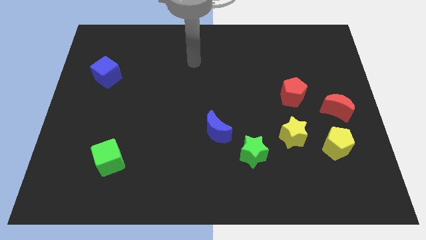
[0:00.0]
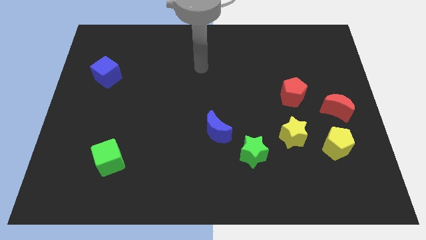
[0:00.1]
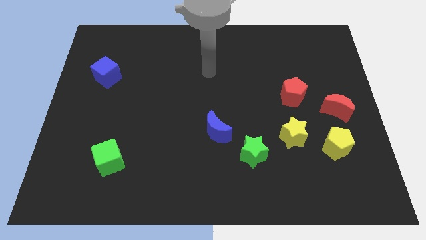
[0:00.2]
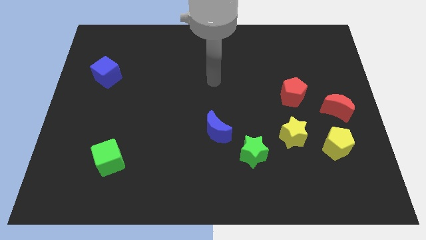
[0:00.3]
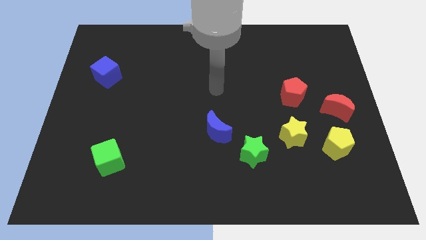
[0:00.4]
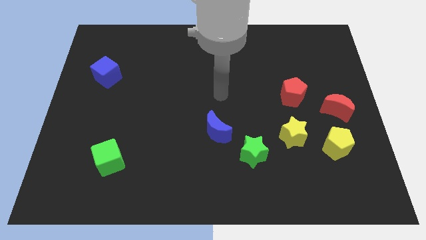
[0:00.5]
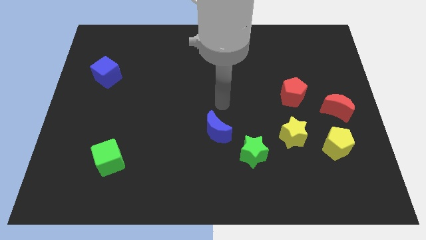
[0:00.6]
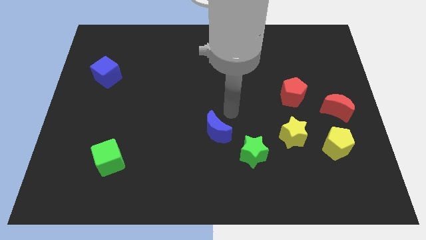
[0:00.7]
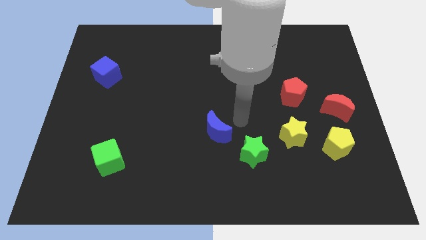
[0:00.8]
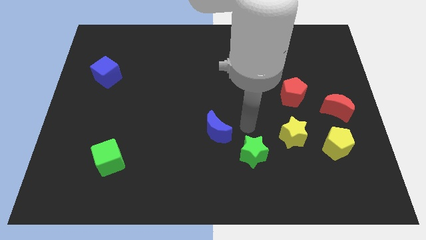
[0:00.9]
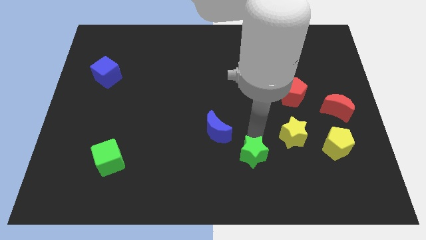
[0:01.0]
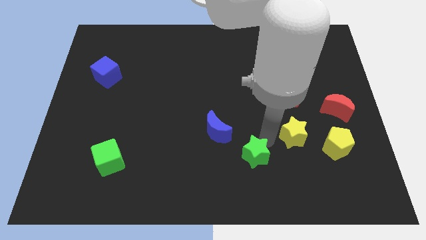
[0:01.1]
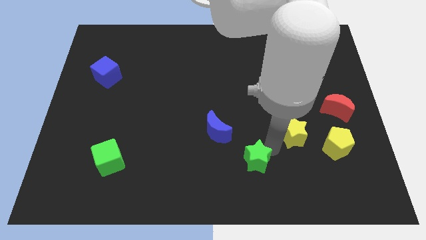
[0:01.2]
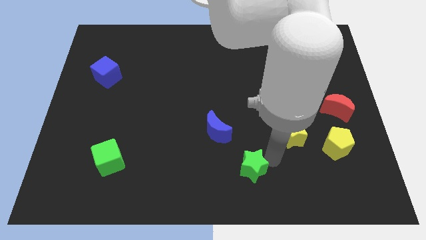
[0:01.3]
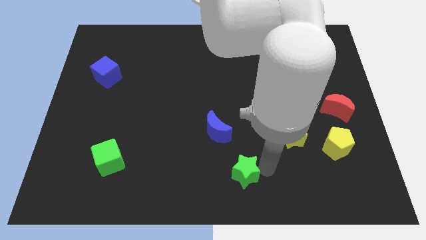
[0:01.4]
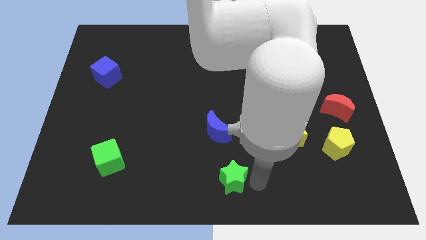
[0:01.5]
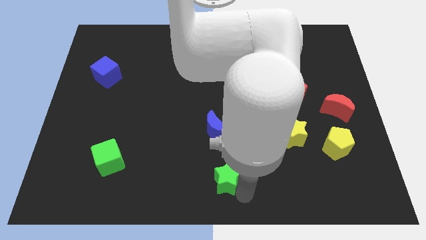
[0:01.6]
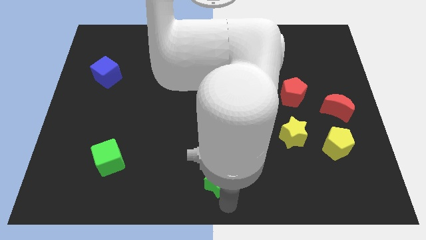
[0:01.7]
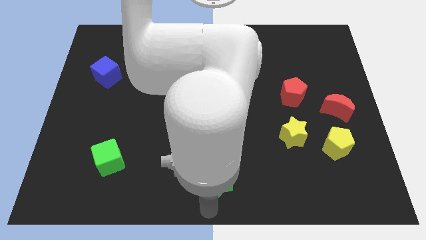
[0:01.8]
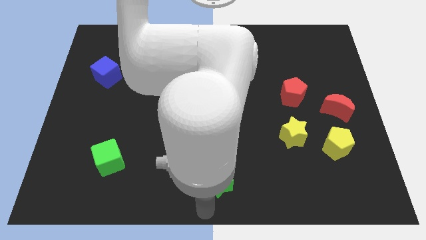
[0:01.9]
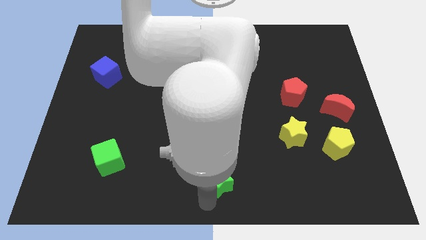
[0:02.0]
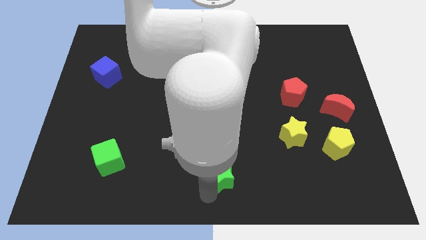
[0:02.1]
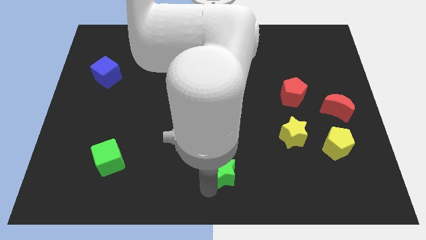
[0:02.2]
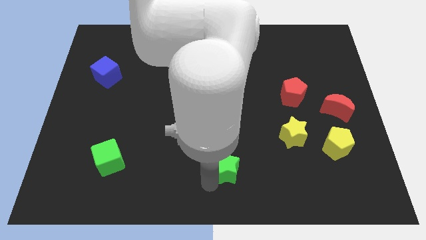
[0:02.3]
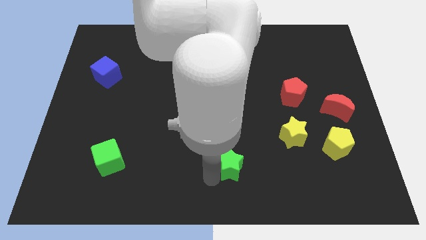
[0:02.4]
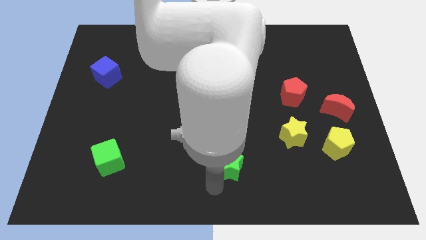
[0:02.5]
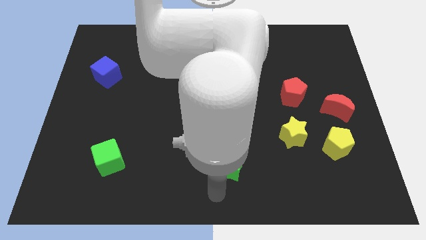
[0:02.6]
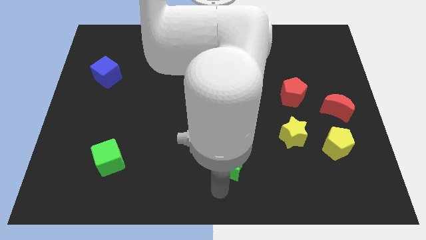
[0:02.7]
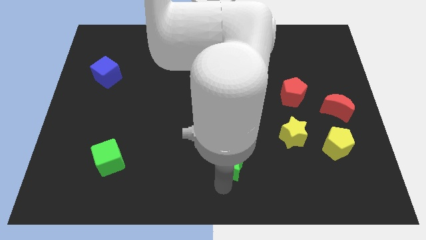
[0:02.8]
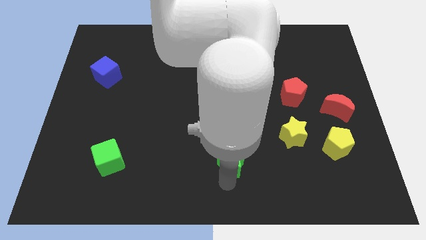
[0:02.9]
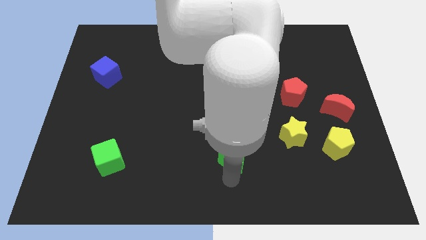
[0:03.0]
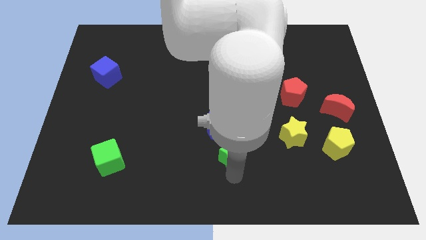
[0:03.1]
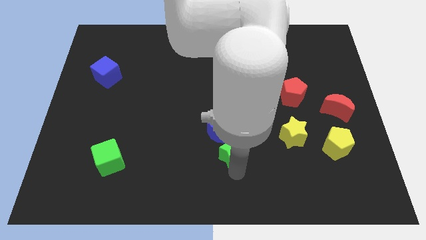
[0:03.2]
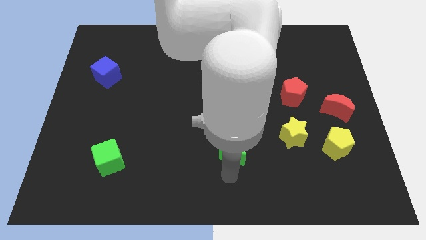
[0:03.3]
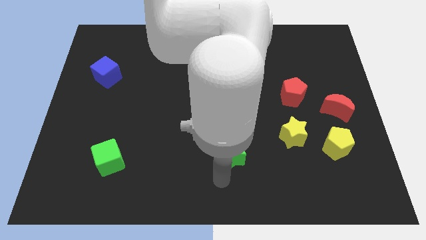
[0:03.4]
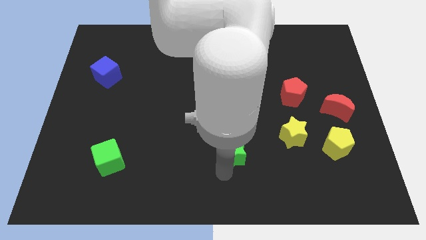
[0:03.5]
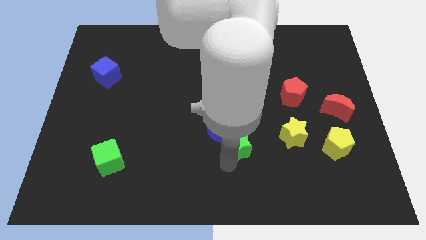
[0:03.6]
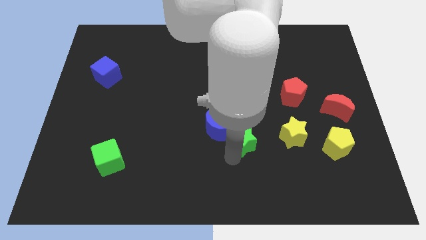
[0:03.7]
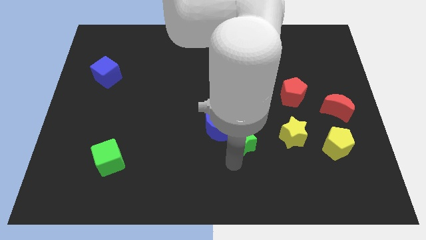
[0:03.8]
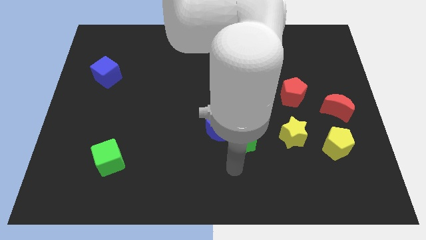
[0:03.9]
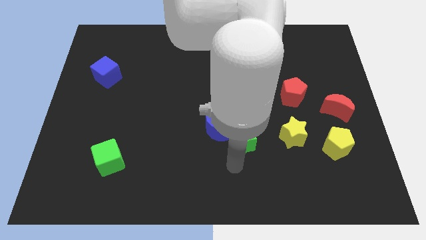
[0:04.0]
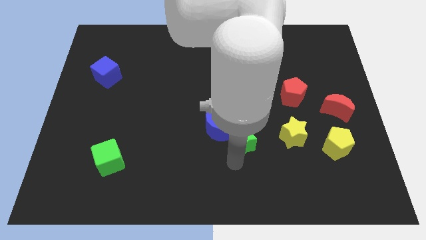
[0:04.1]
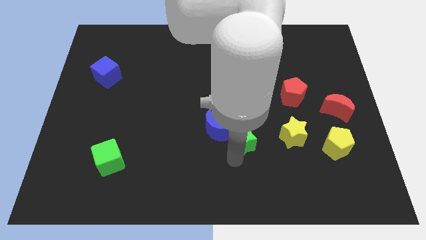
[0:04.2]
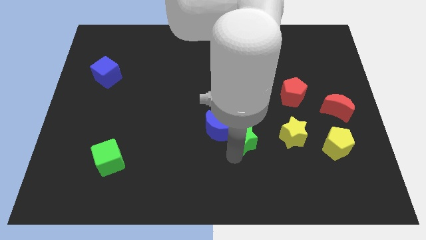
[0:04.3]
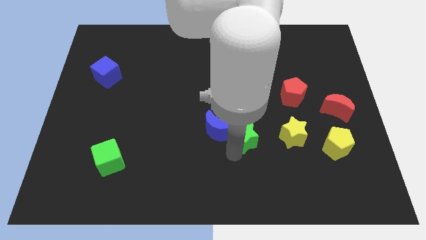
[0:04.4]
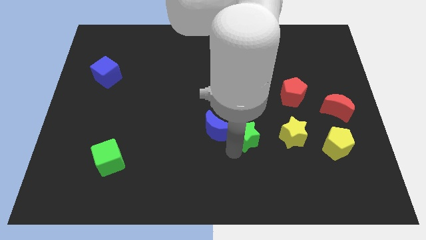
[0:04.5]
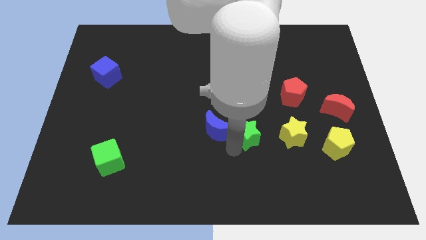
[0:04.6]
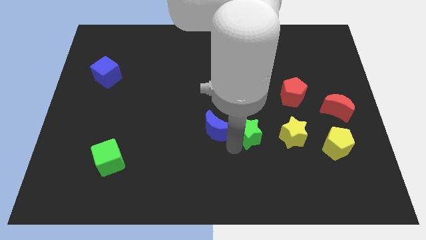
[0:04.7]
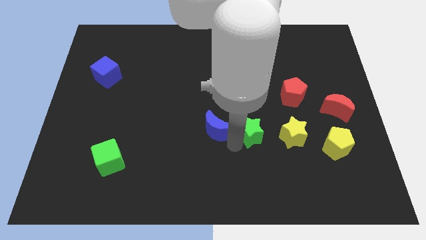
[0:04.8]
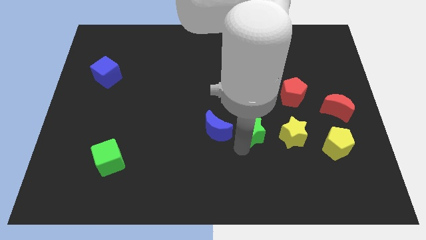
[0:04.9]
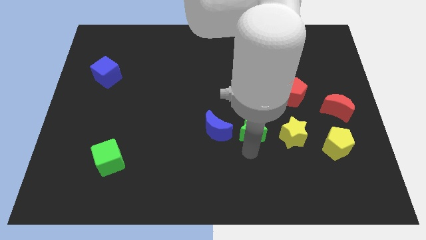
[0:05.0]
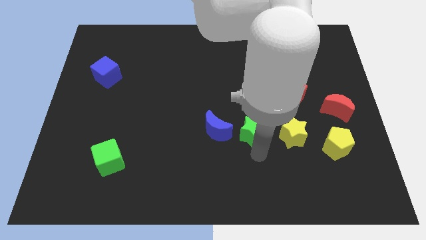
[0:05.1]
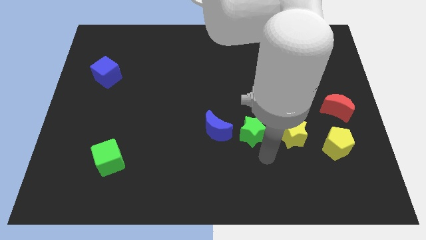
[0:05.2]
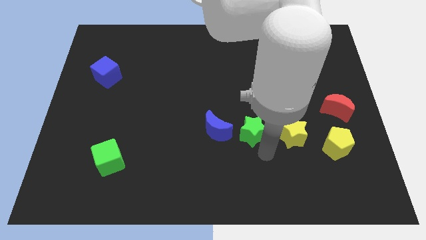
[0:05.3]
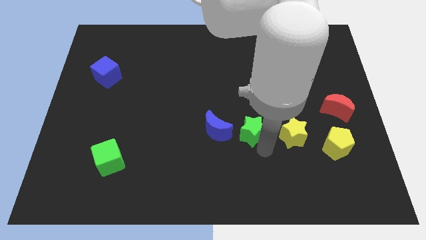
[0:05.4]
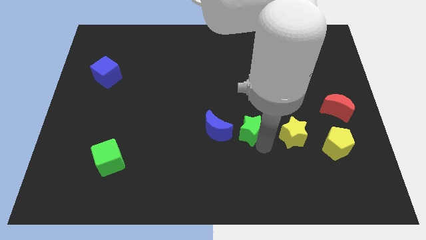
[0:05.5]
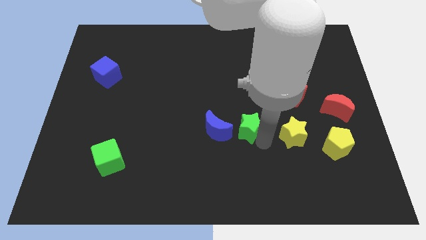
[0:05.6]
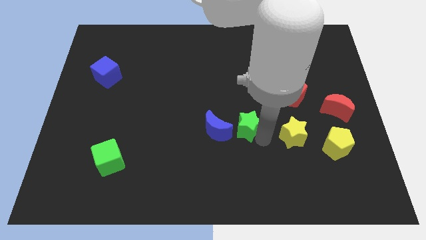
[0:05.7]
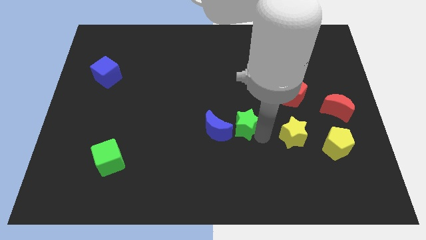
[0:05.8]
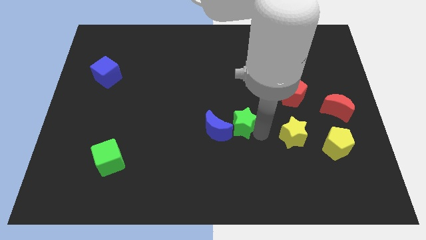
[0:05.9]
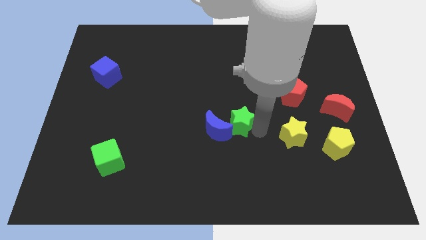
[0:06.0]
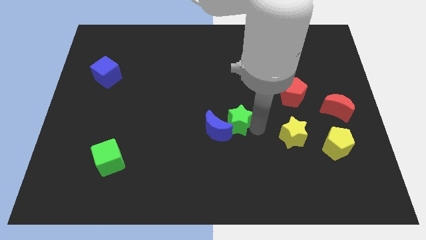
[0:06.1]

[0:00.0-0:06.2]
move the green star up and then to the left somewhat

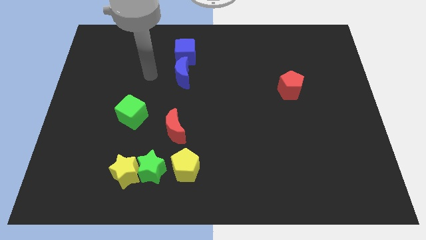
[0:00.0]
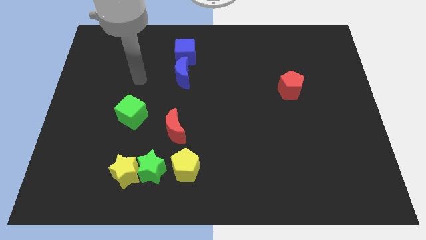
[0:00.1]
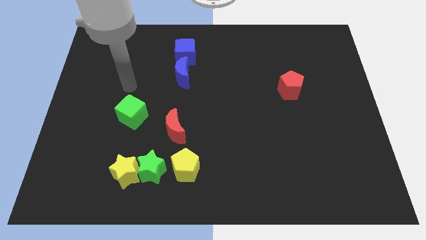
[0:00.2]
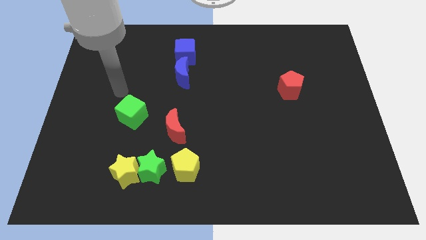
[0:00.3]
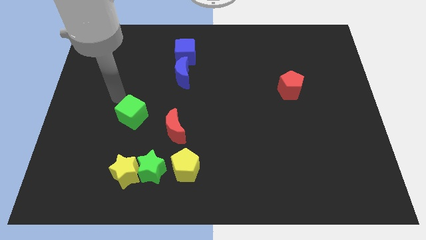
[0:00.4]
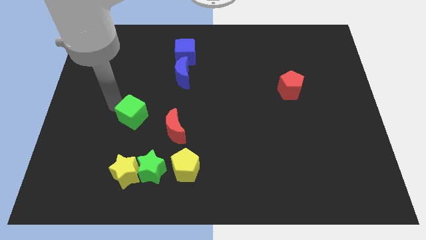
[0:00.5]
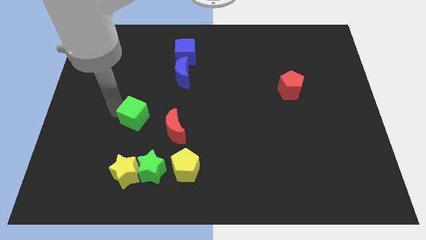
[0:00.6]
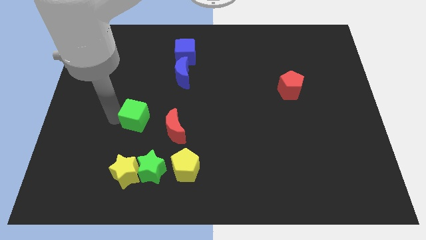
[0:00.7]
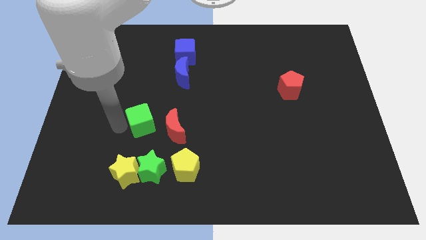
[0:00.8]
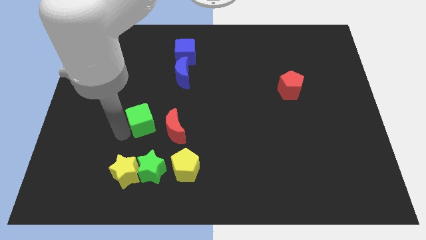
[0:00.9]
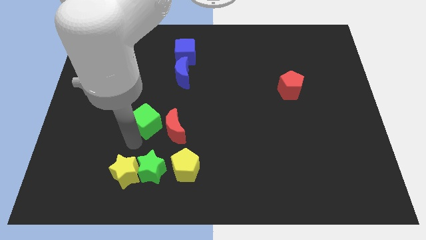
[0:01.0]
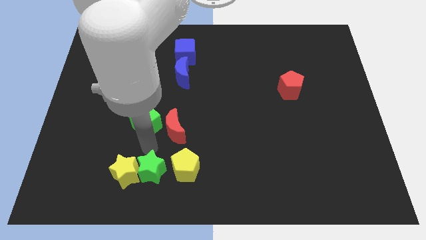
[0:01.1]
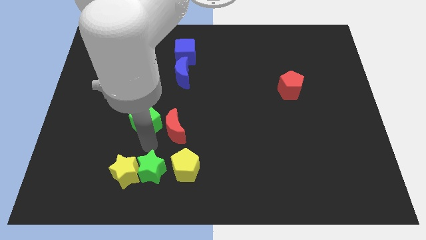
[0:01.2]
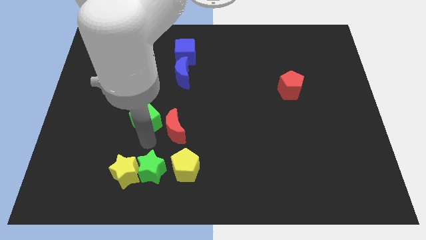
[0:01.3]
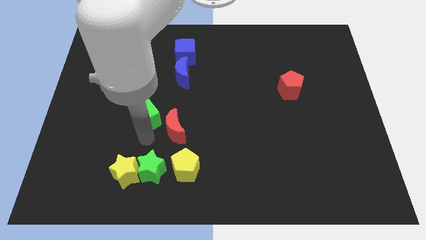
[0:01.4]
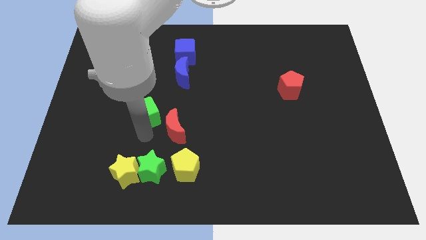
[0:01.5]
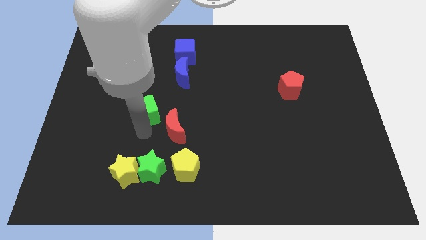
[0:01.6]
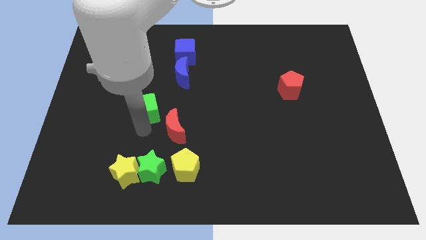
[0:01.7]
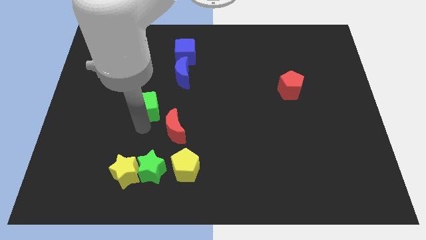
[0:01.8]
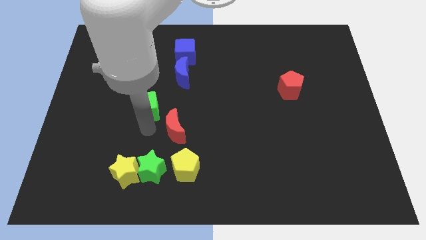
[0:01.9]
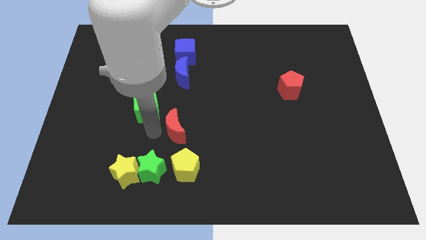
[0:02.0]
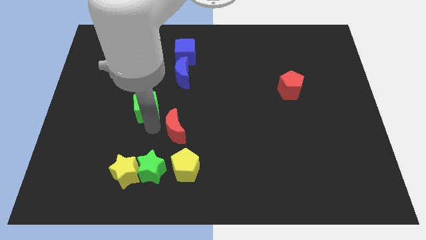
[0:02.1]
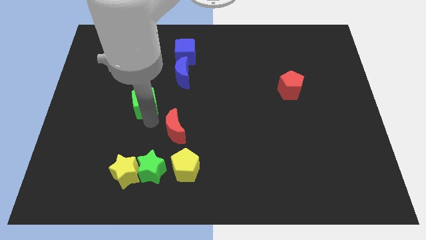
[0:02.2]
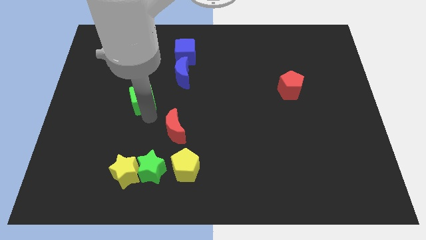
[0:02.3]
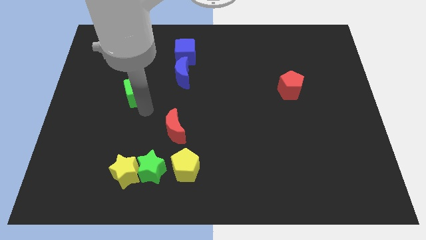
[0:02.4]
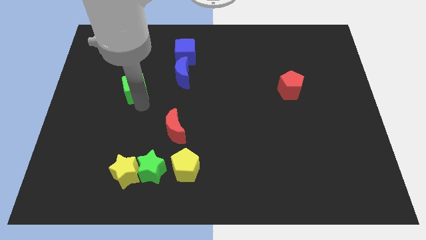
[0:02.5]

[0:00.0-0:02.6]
push the green cube a little bit up
